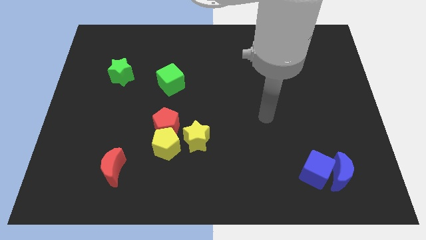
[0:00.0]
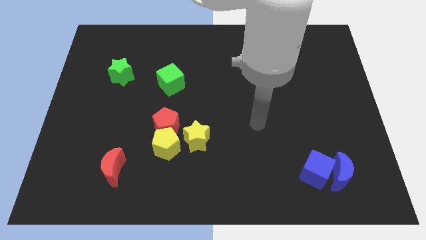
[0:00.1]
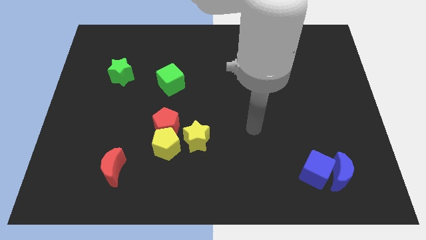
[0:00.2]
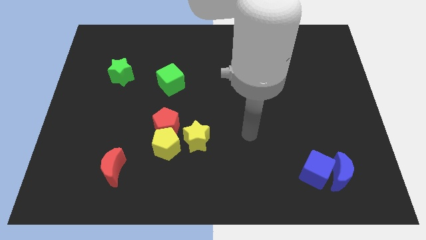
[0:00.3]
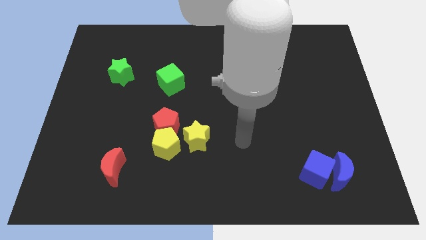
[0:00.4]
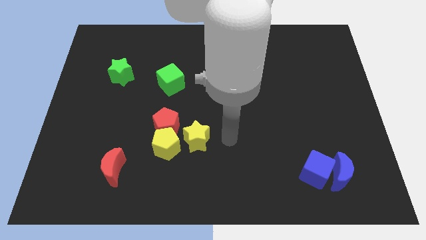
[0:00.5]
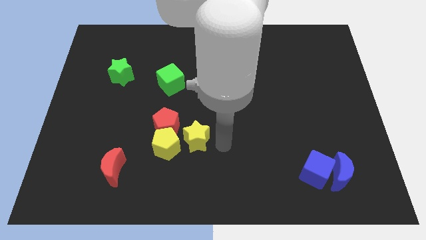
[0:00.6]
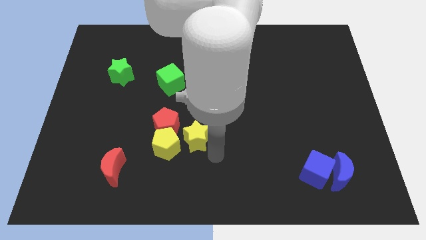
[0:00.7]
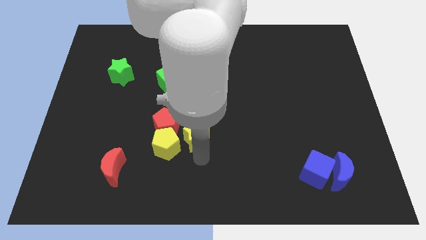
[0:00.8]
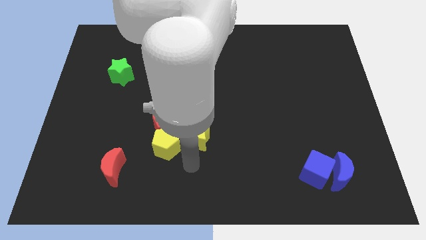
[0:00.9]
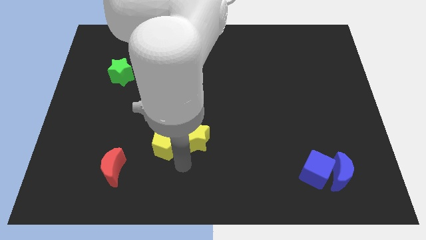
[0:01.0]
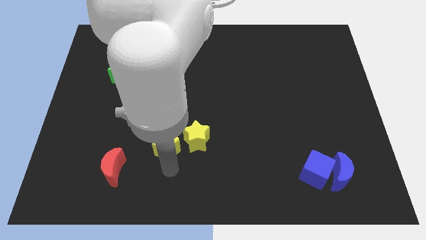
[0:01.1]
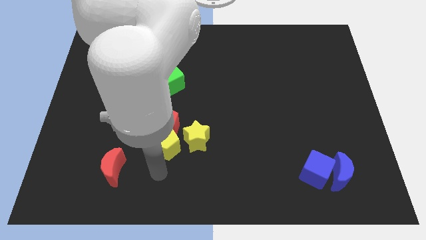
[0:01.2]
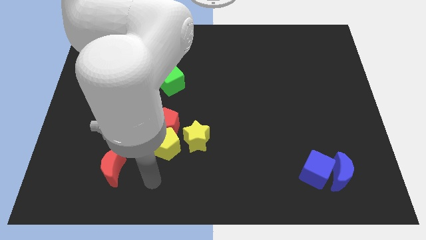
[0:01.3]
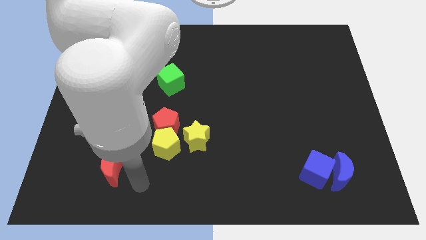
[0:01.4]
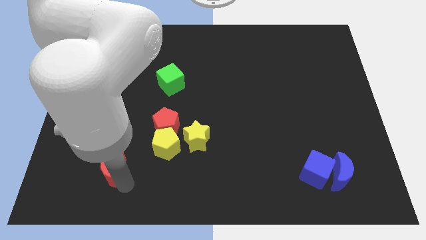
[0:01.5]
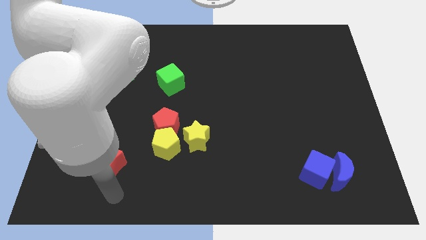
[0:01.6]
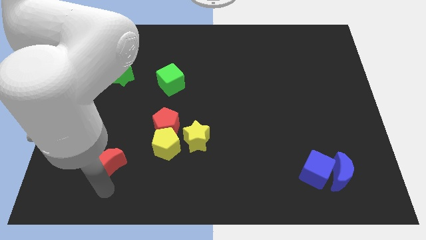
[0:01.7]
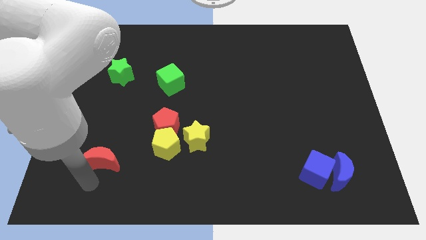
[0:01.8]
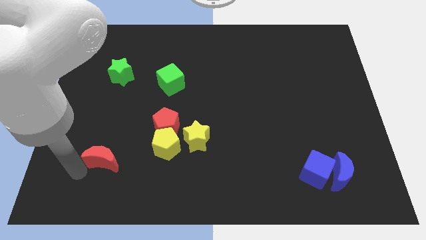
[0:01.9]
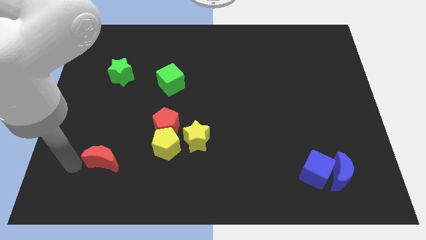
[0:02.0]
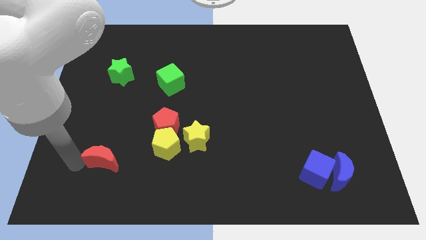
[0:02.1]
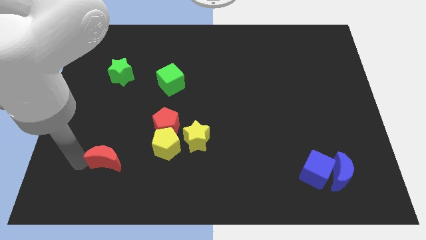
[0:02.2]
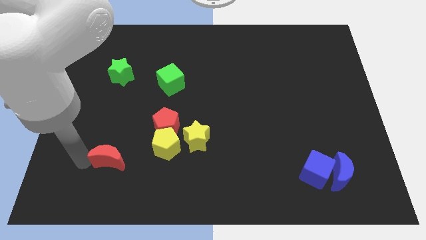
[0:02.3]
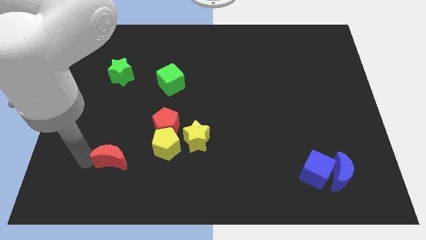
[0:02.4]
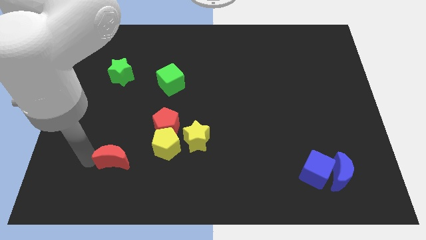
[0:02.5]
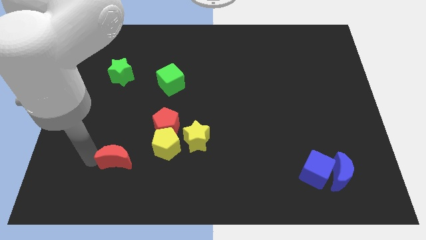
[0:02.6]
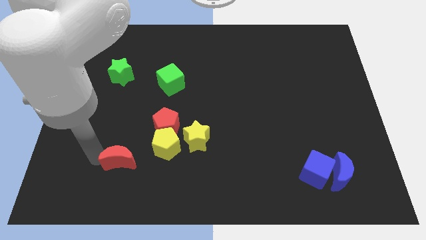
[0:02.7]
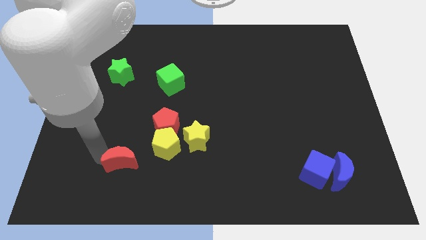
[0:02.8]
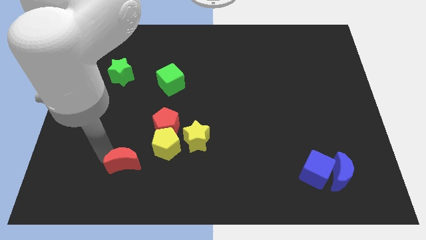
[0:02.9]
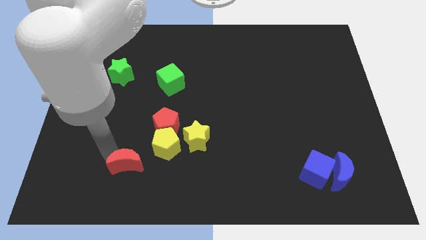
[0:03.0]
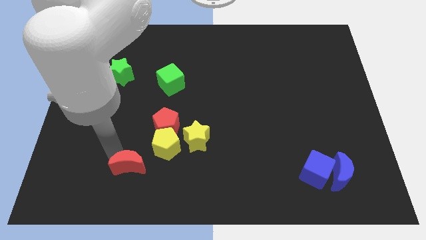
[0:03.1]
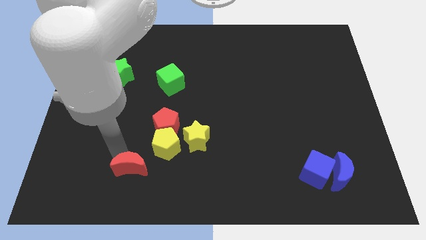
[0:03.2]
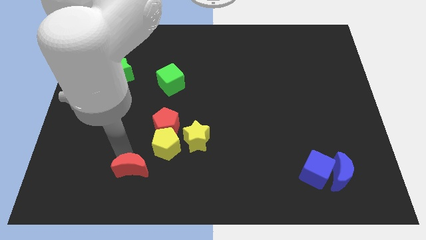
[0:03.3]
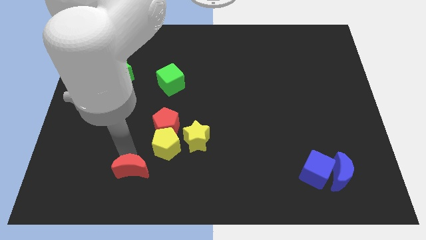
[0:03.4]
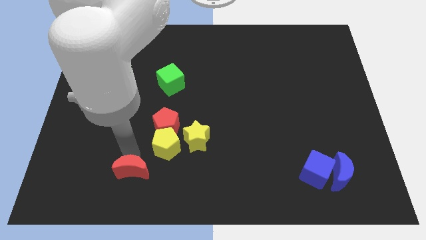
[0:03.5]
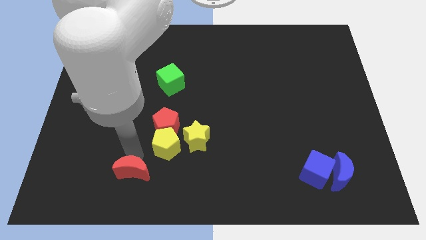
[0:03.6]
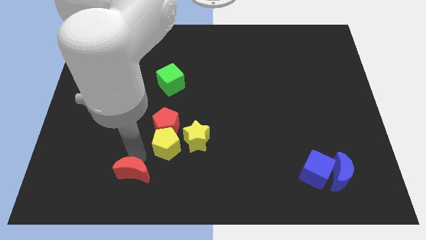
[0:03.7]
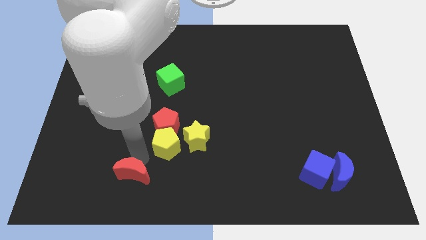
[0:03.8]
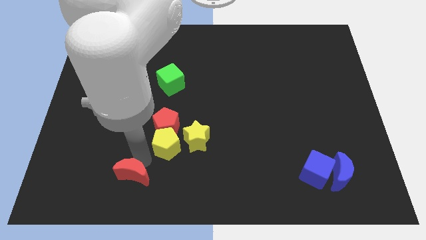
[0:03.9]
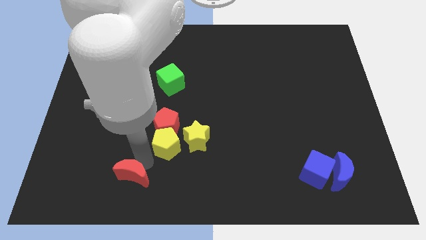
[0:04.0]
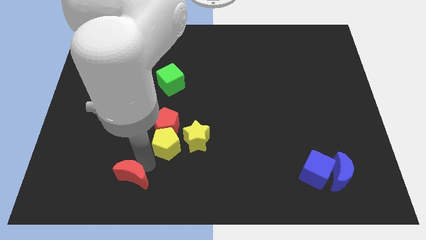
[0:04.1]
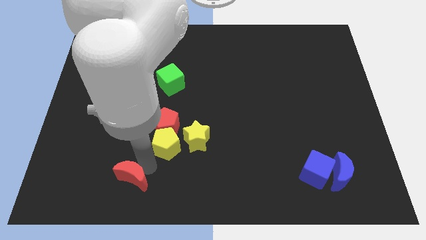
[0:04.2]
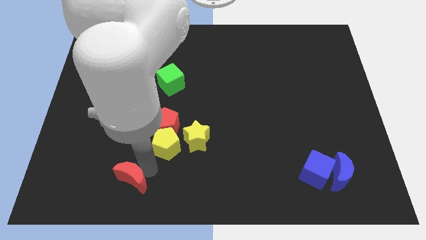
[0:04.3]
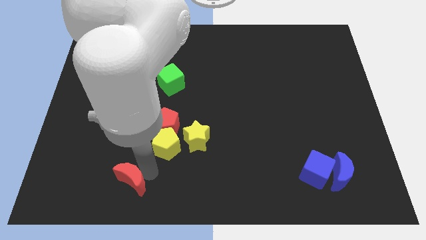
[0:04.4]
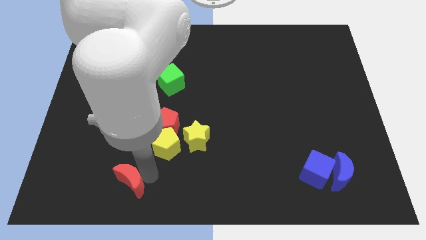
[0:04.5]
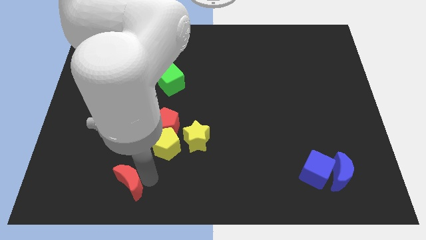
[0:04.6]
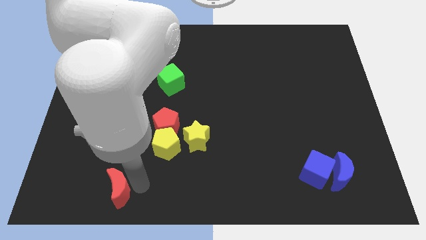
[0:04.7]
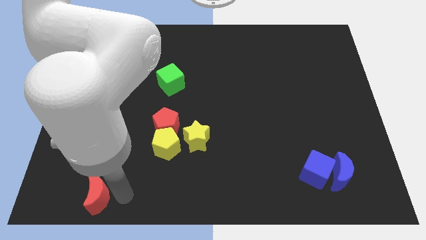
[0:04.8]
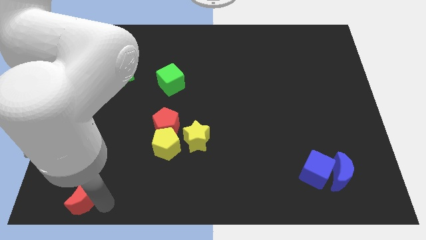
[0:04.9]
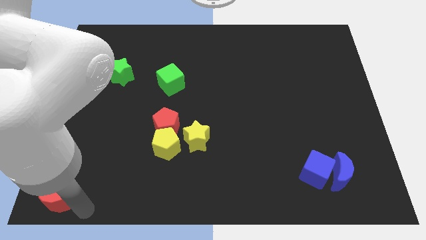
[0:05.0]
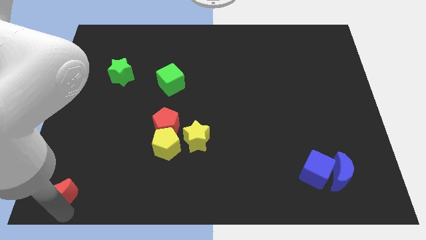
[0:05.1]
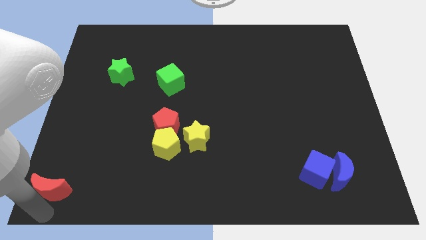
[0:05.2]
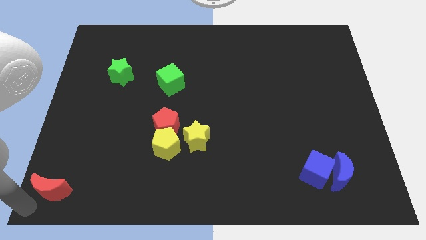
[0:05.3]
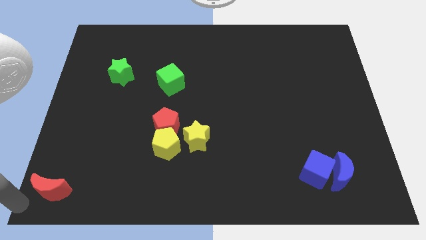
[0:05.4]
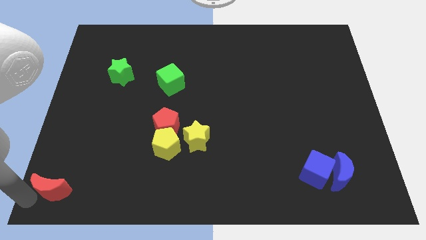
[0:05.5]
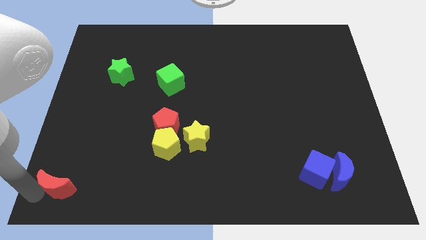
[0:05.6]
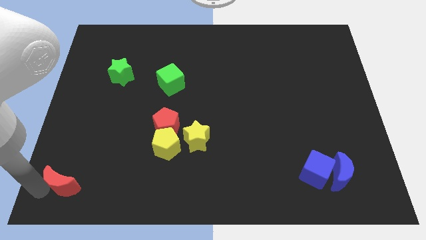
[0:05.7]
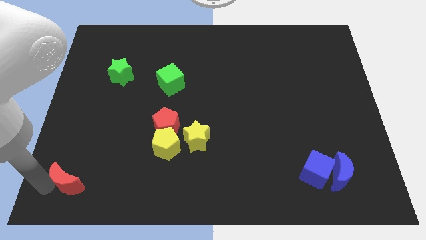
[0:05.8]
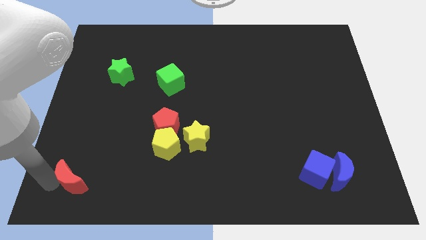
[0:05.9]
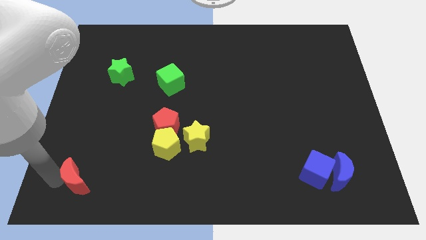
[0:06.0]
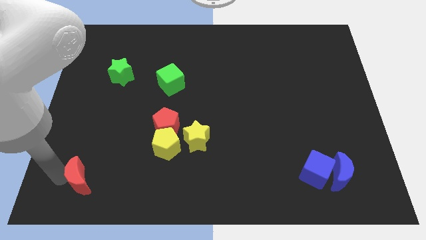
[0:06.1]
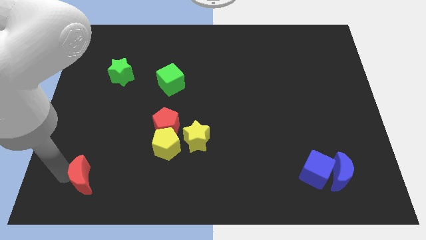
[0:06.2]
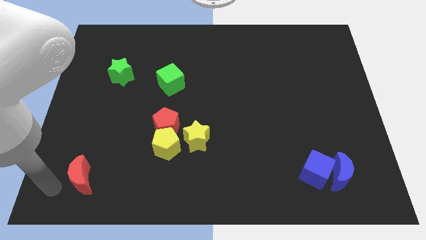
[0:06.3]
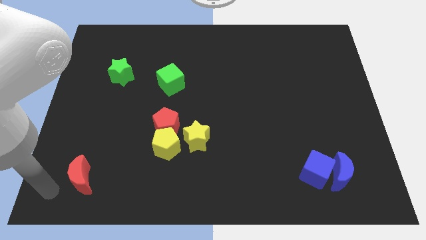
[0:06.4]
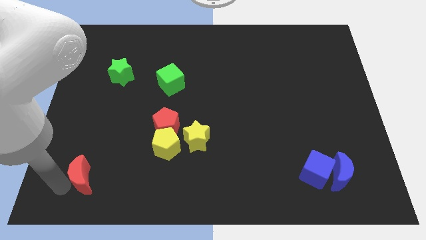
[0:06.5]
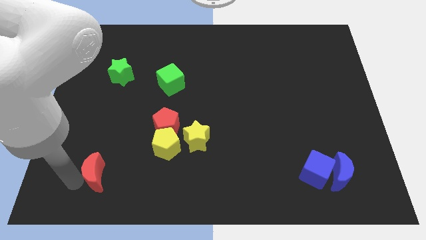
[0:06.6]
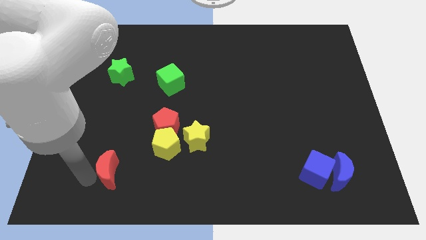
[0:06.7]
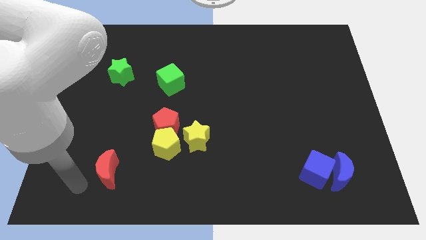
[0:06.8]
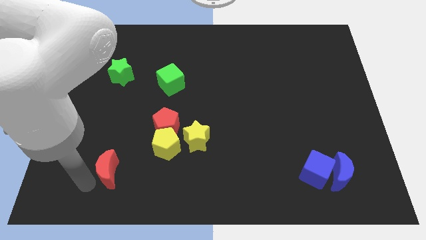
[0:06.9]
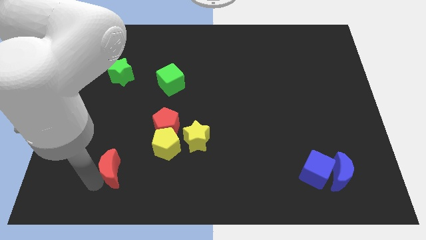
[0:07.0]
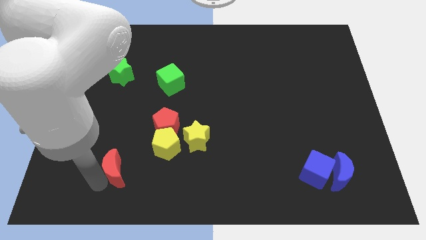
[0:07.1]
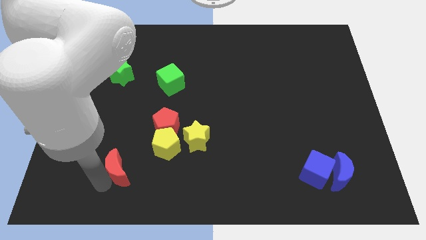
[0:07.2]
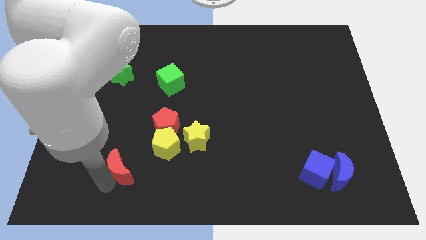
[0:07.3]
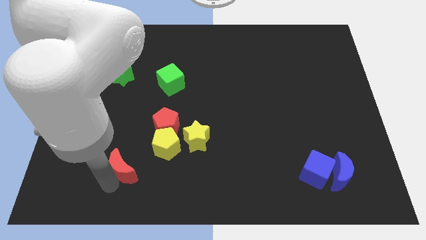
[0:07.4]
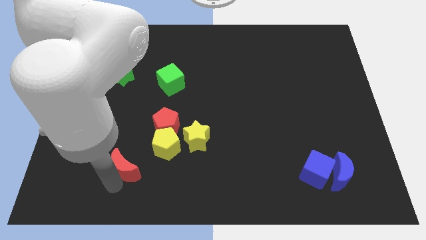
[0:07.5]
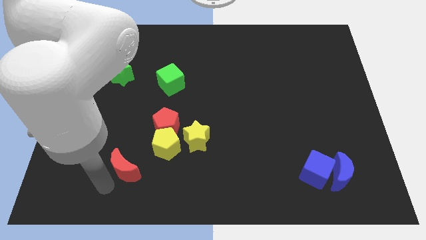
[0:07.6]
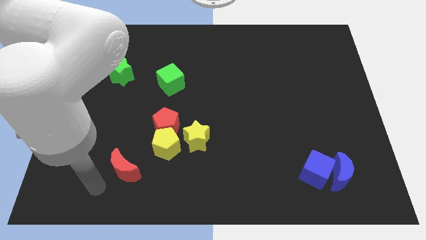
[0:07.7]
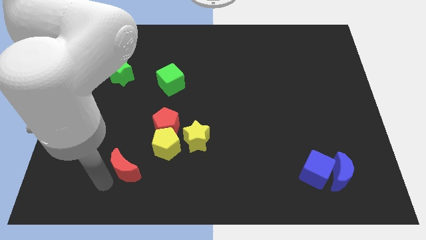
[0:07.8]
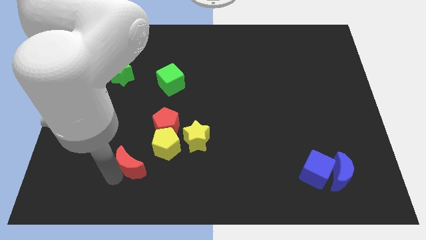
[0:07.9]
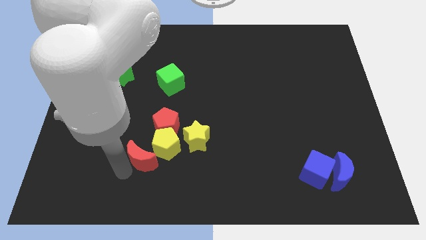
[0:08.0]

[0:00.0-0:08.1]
push the red moon close to the yellow pentagon
